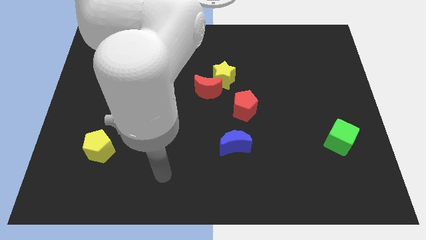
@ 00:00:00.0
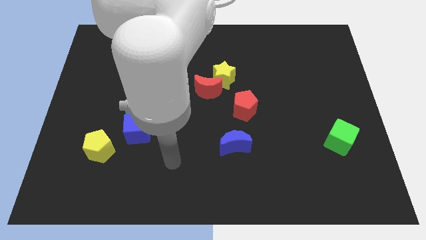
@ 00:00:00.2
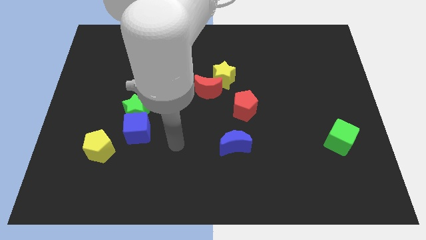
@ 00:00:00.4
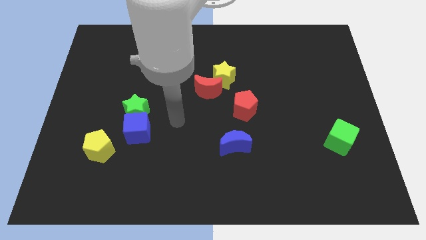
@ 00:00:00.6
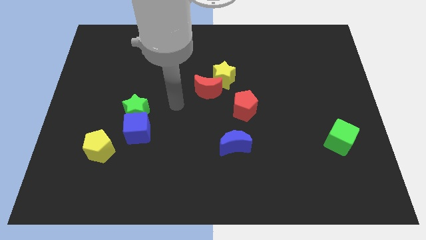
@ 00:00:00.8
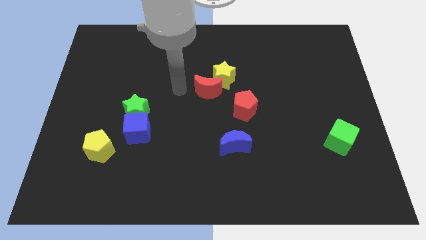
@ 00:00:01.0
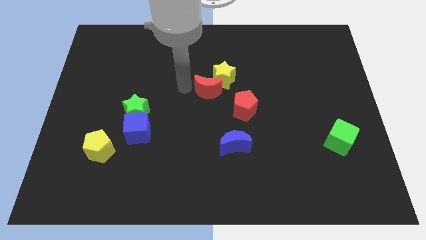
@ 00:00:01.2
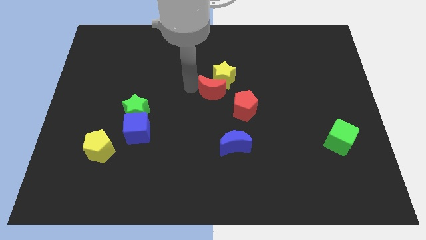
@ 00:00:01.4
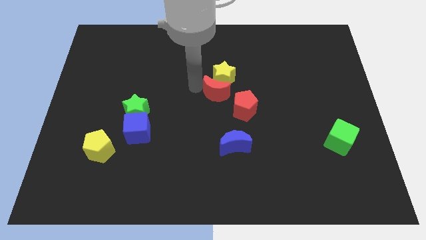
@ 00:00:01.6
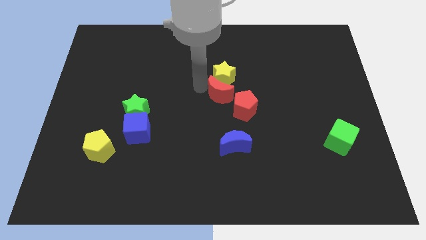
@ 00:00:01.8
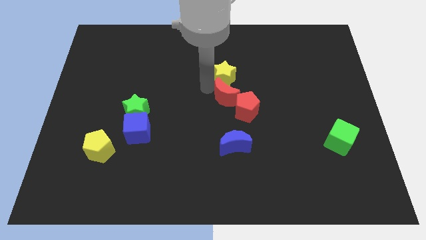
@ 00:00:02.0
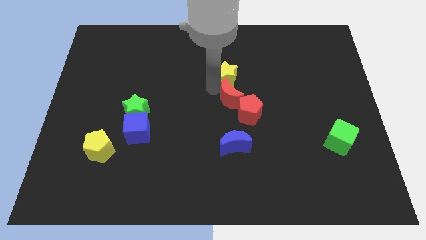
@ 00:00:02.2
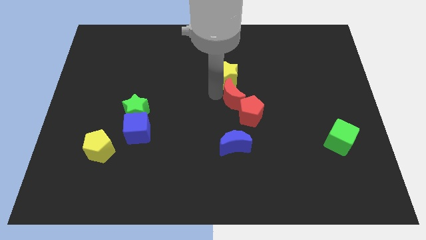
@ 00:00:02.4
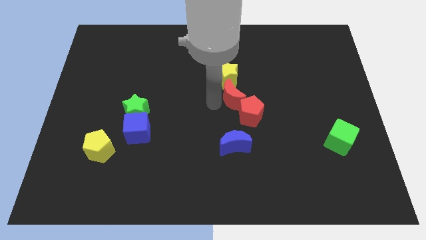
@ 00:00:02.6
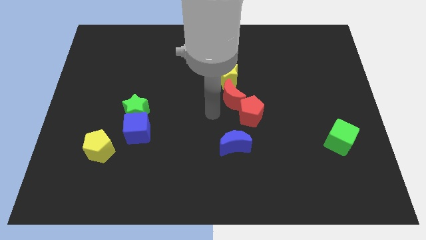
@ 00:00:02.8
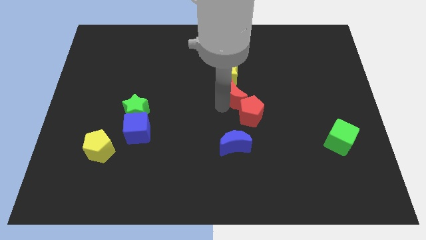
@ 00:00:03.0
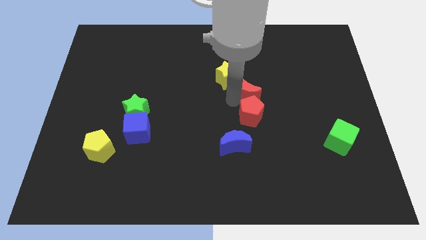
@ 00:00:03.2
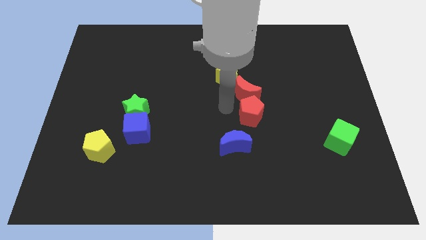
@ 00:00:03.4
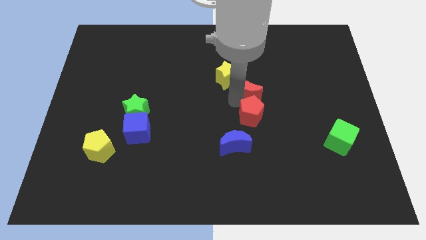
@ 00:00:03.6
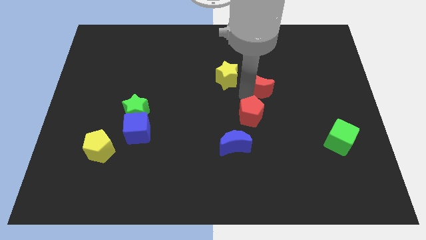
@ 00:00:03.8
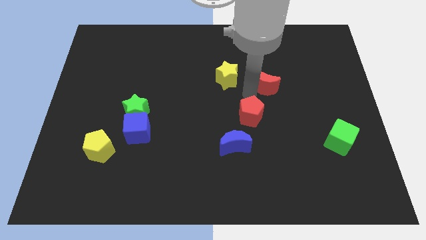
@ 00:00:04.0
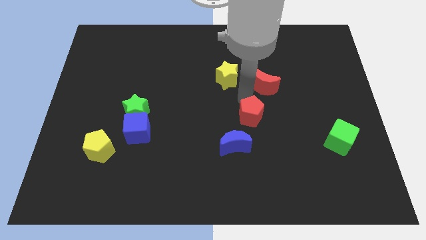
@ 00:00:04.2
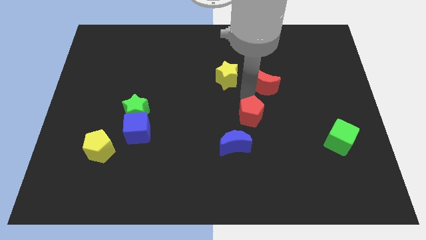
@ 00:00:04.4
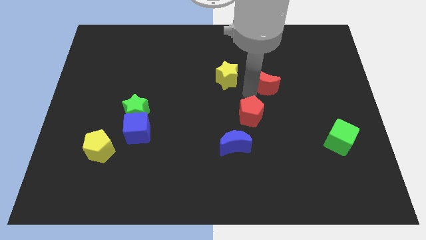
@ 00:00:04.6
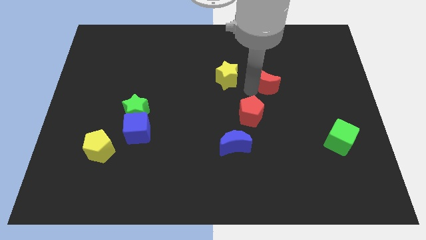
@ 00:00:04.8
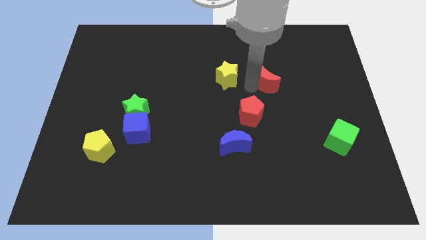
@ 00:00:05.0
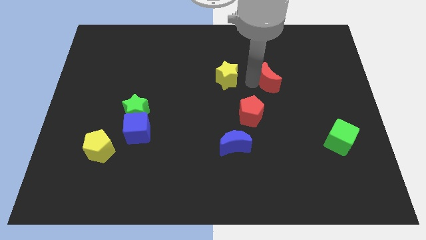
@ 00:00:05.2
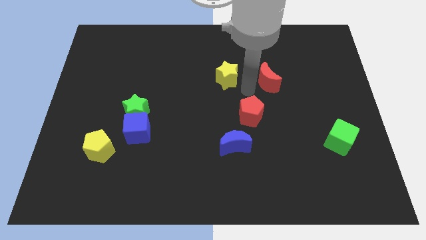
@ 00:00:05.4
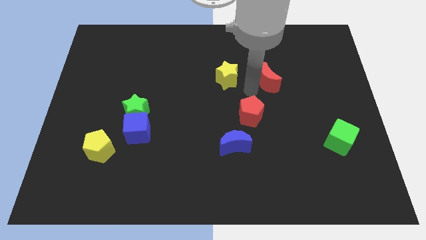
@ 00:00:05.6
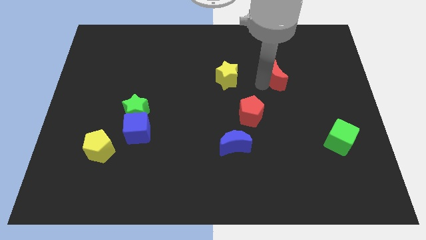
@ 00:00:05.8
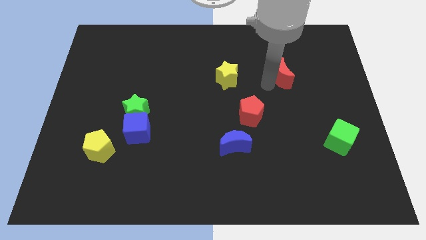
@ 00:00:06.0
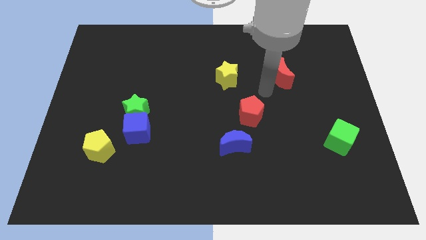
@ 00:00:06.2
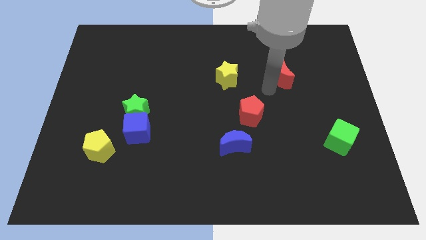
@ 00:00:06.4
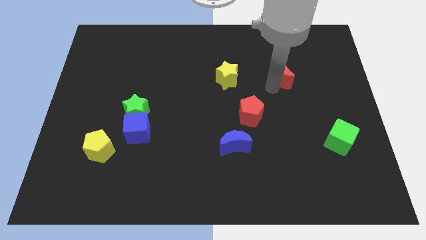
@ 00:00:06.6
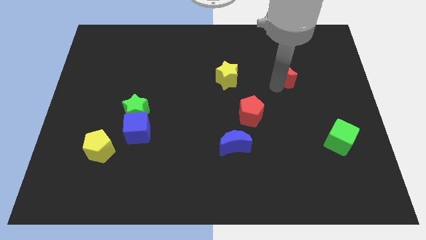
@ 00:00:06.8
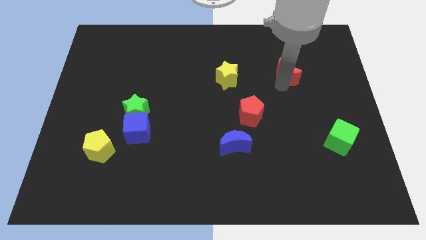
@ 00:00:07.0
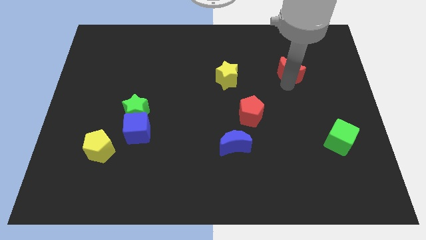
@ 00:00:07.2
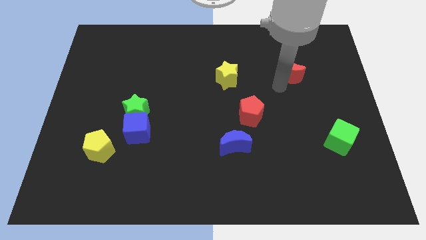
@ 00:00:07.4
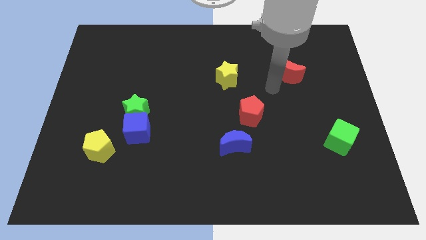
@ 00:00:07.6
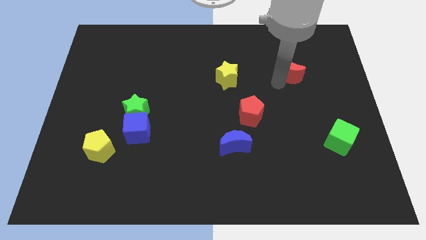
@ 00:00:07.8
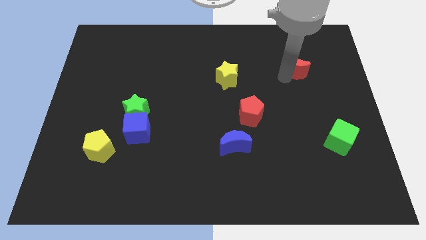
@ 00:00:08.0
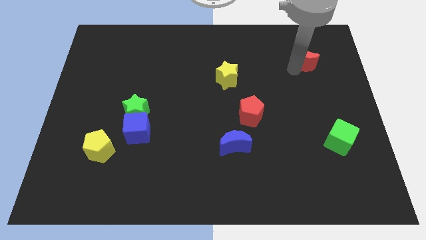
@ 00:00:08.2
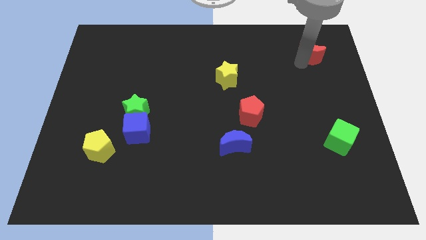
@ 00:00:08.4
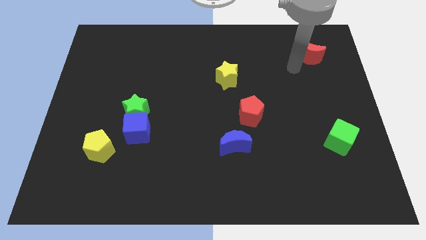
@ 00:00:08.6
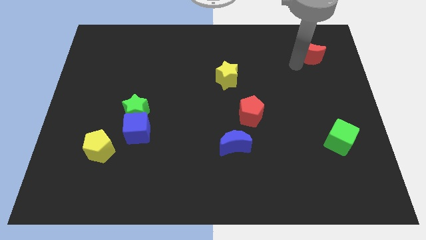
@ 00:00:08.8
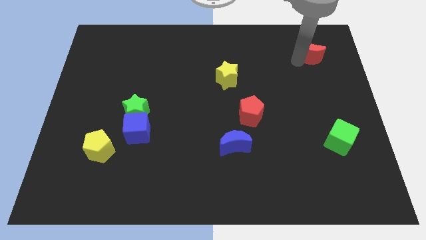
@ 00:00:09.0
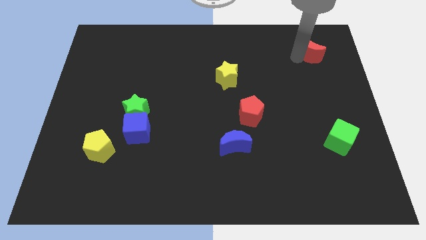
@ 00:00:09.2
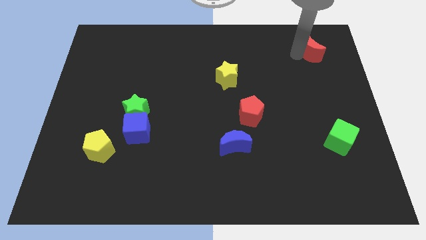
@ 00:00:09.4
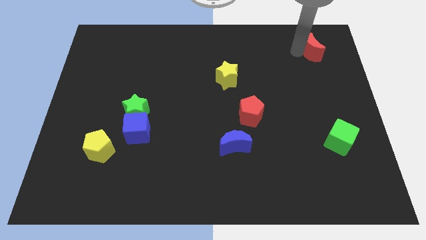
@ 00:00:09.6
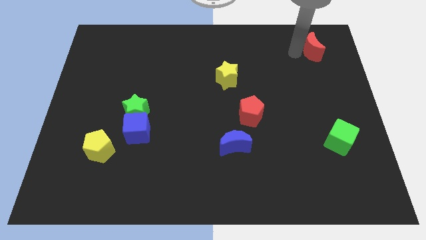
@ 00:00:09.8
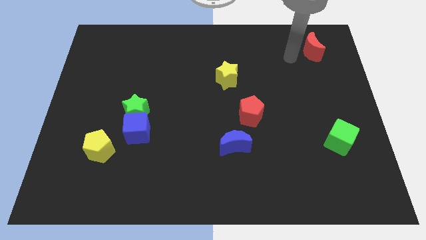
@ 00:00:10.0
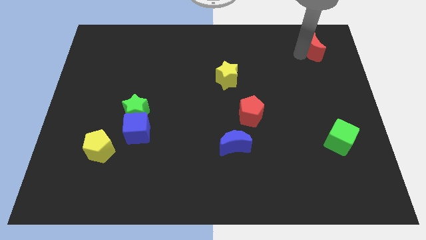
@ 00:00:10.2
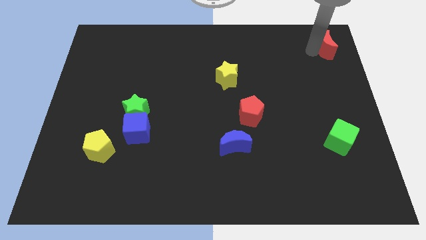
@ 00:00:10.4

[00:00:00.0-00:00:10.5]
slide the red moon to the top right of the board

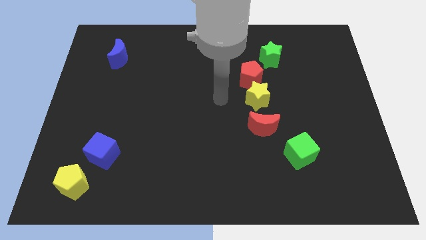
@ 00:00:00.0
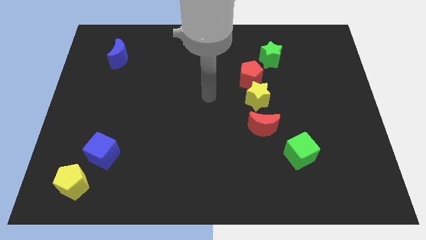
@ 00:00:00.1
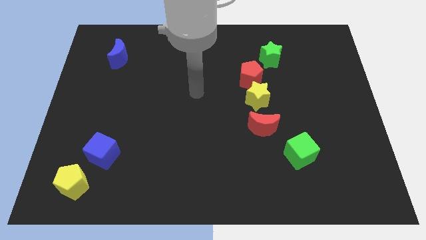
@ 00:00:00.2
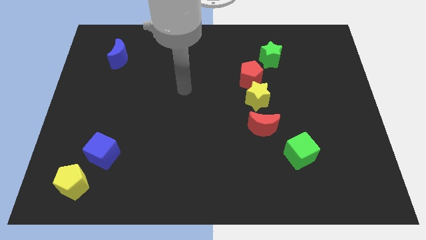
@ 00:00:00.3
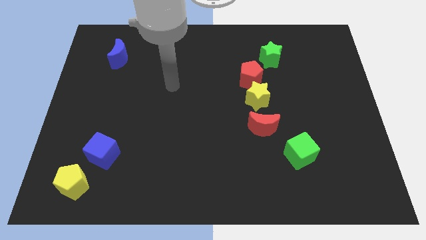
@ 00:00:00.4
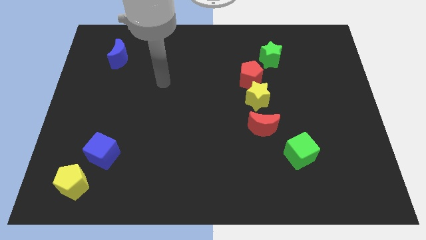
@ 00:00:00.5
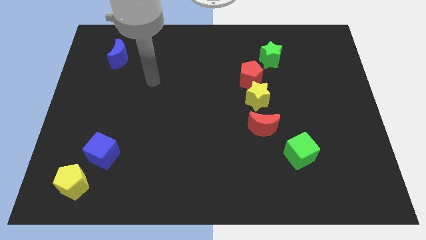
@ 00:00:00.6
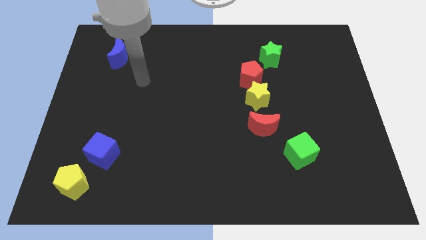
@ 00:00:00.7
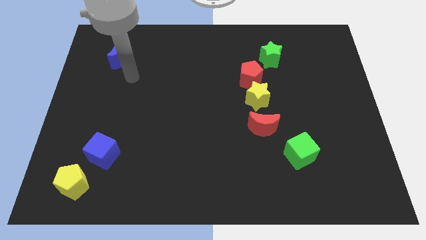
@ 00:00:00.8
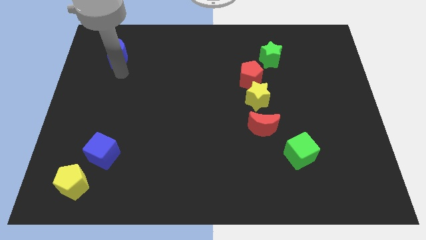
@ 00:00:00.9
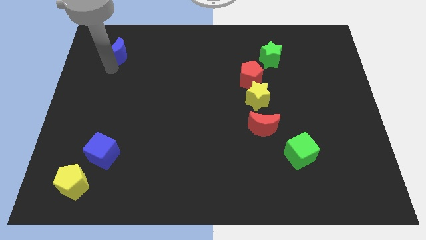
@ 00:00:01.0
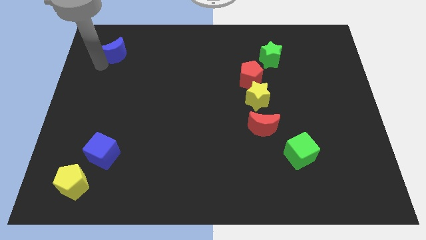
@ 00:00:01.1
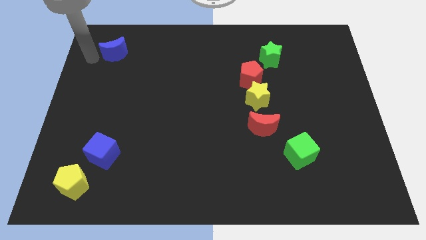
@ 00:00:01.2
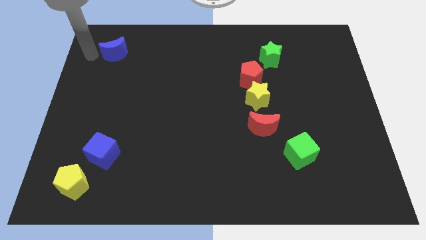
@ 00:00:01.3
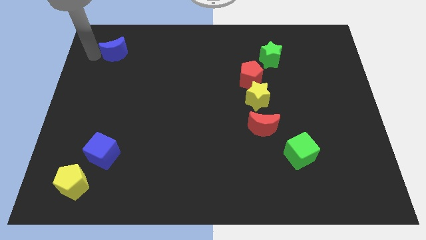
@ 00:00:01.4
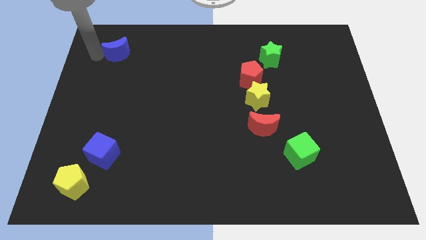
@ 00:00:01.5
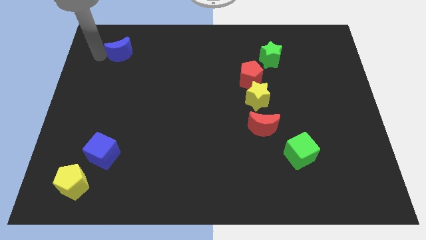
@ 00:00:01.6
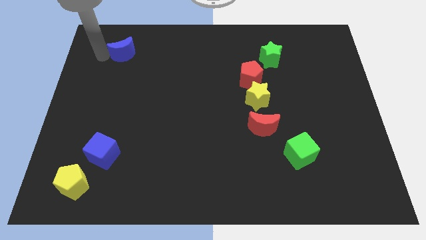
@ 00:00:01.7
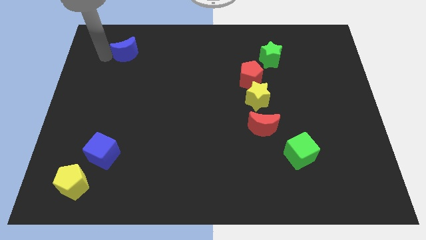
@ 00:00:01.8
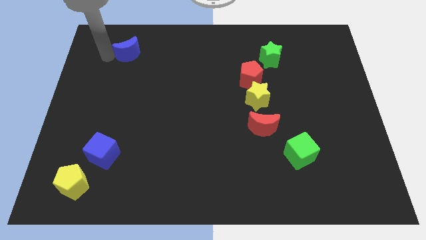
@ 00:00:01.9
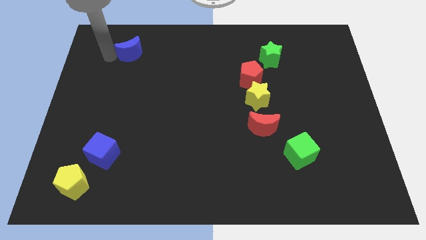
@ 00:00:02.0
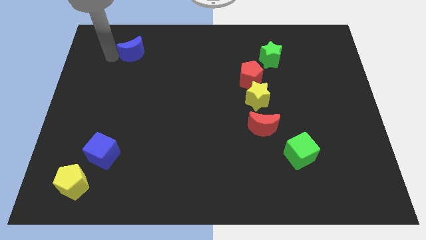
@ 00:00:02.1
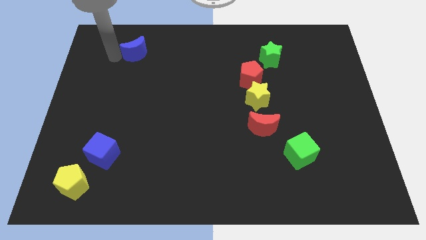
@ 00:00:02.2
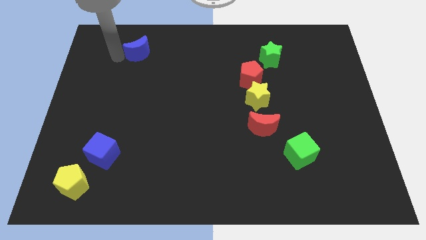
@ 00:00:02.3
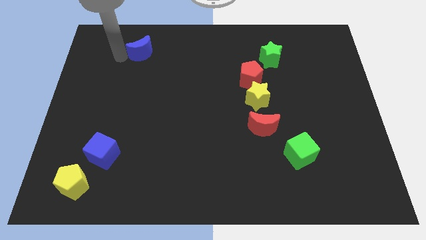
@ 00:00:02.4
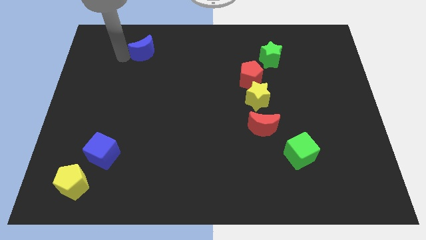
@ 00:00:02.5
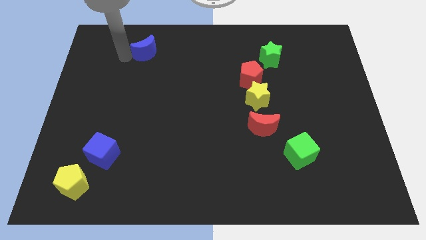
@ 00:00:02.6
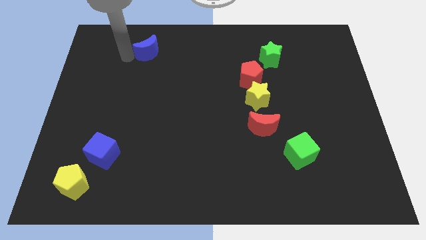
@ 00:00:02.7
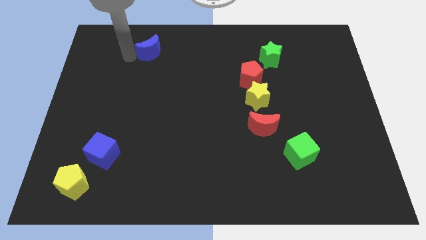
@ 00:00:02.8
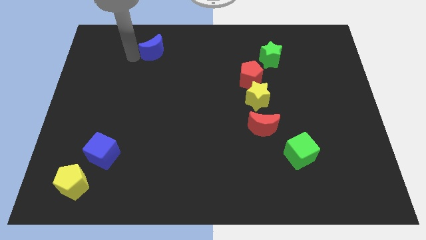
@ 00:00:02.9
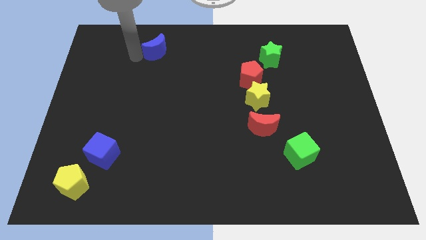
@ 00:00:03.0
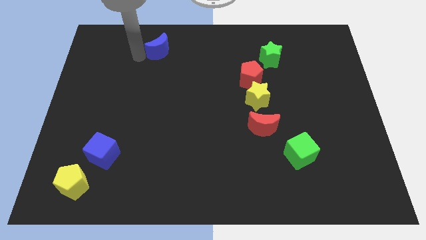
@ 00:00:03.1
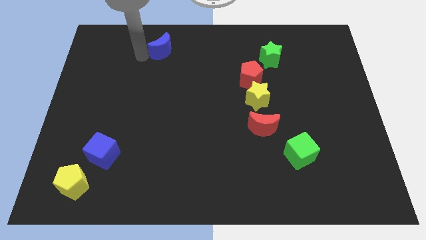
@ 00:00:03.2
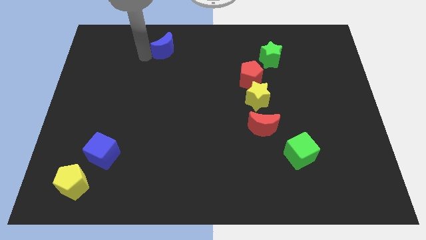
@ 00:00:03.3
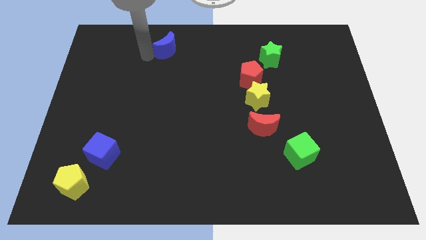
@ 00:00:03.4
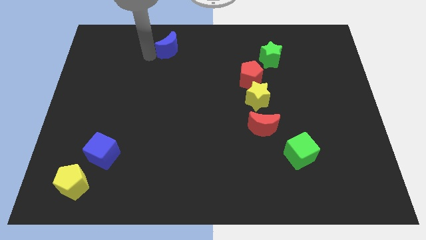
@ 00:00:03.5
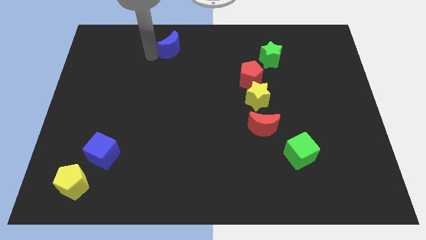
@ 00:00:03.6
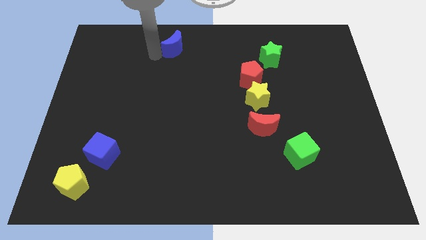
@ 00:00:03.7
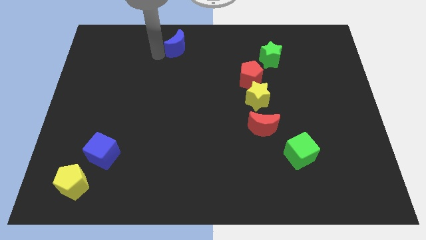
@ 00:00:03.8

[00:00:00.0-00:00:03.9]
put the blue moon to the top
